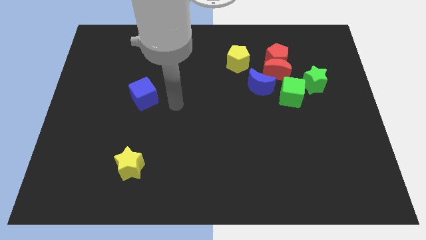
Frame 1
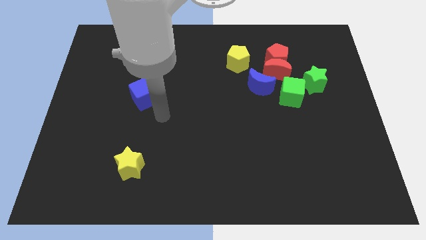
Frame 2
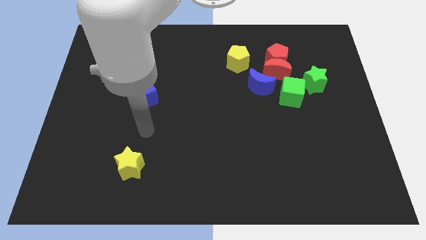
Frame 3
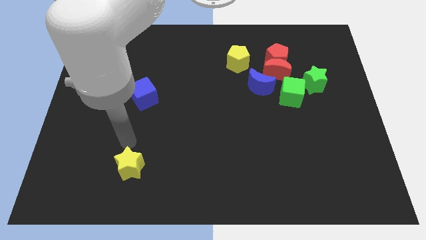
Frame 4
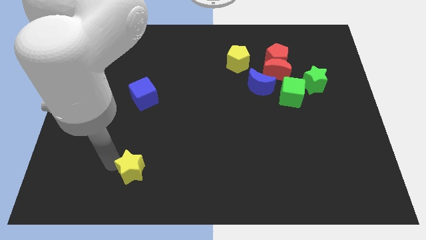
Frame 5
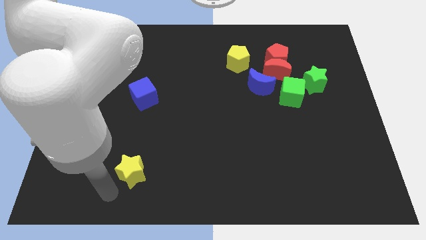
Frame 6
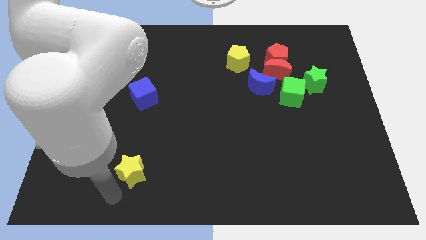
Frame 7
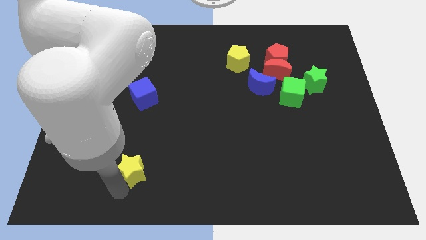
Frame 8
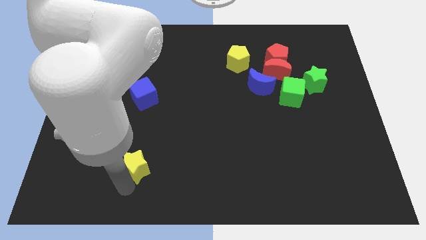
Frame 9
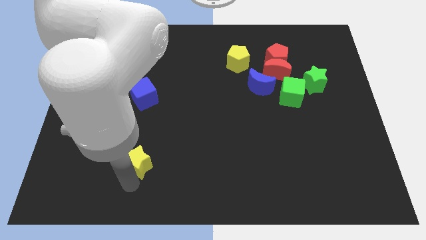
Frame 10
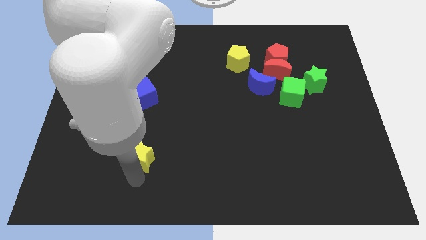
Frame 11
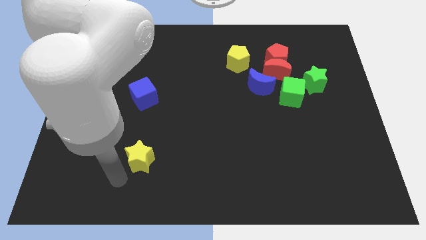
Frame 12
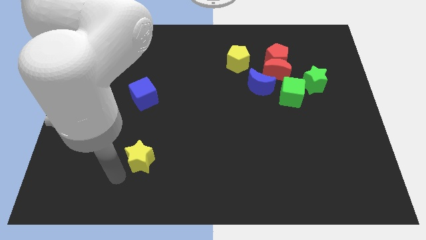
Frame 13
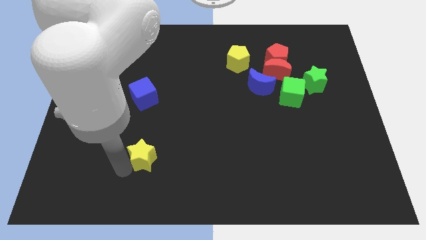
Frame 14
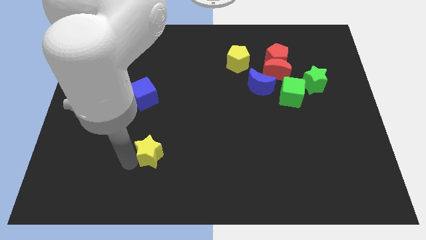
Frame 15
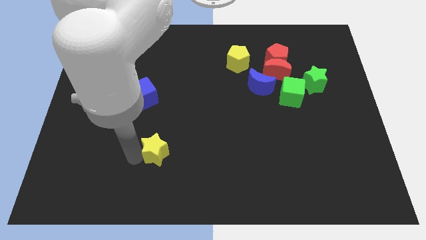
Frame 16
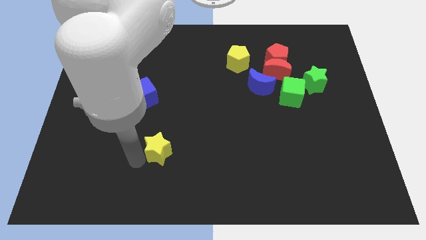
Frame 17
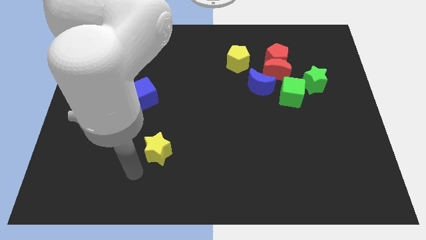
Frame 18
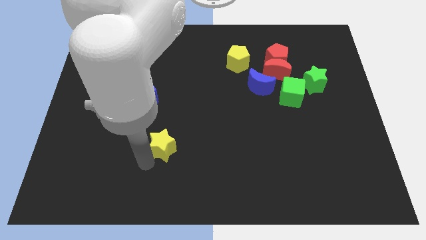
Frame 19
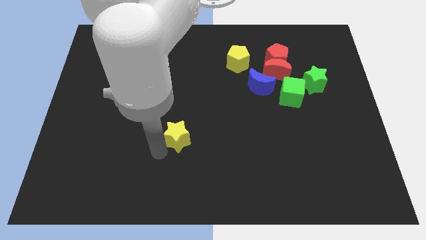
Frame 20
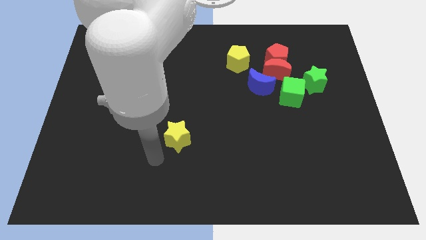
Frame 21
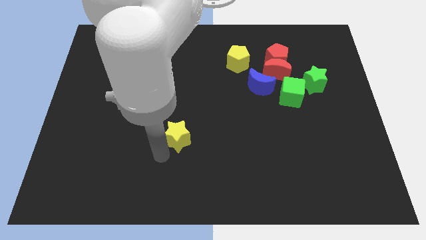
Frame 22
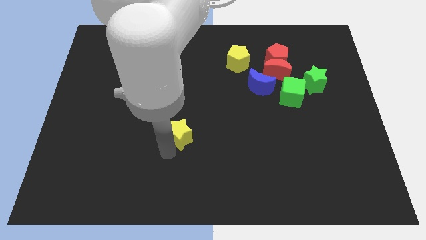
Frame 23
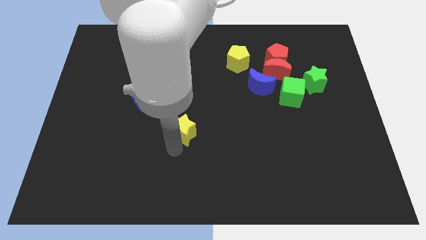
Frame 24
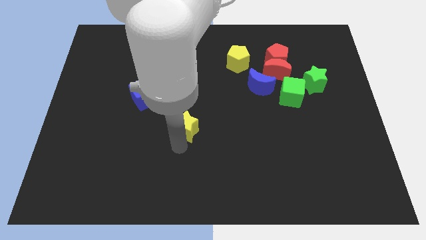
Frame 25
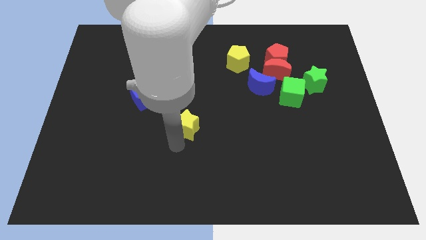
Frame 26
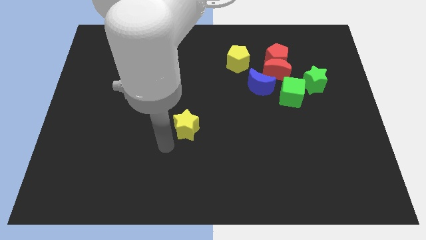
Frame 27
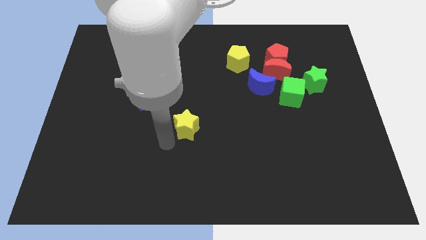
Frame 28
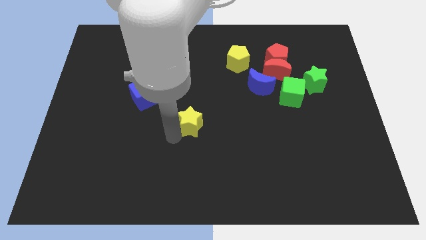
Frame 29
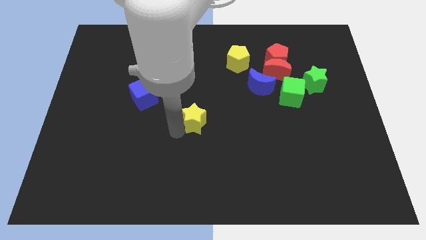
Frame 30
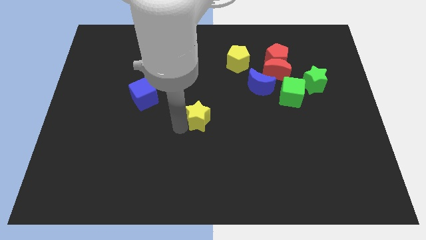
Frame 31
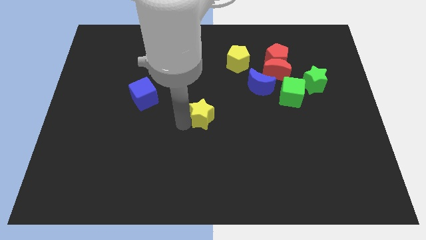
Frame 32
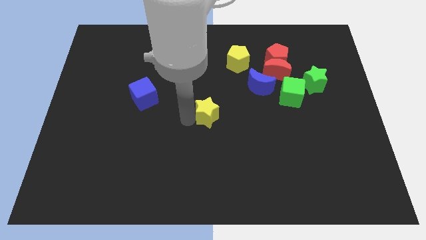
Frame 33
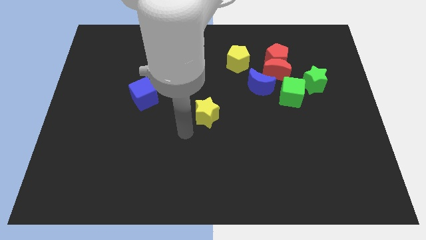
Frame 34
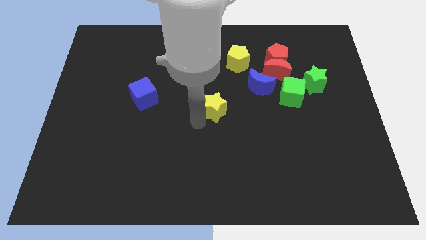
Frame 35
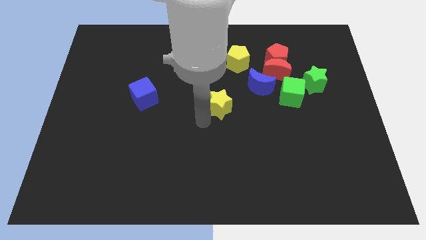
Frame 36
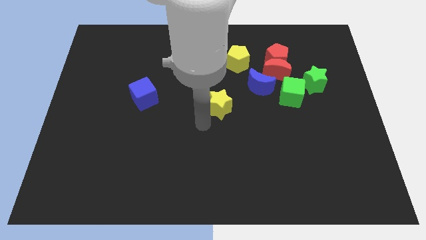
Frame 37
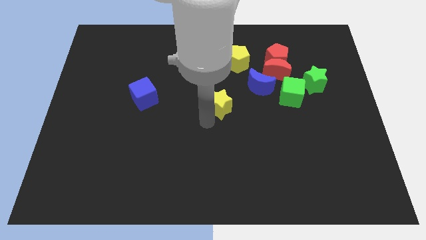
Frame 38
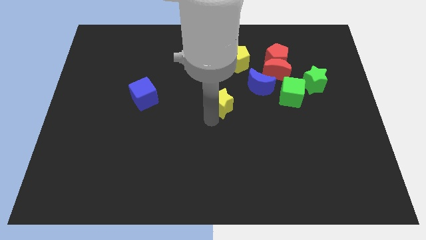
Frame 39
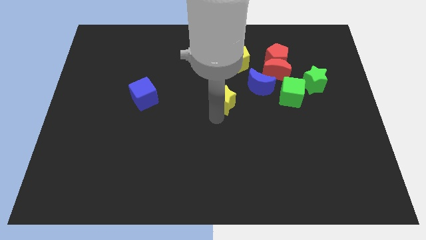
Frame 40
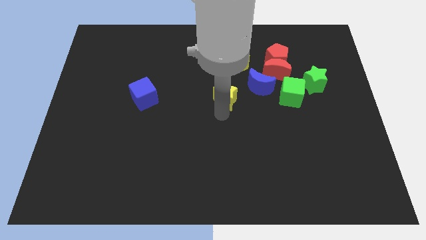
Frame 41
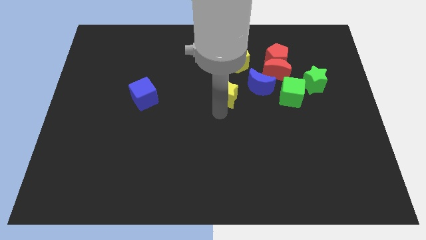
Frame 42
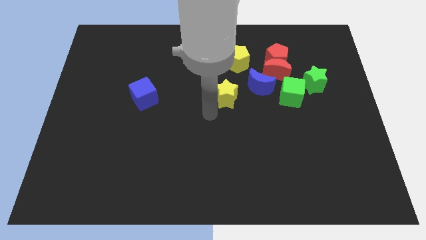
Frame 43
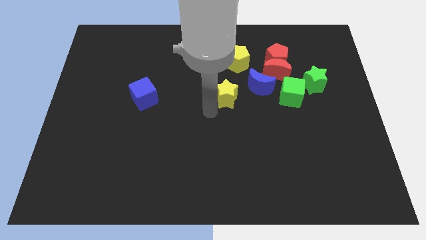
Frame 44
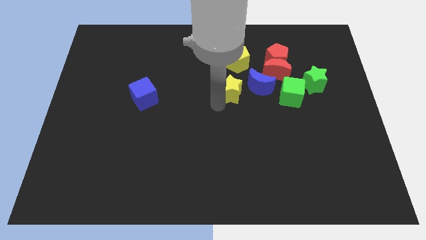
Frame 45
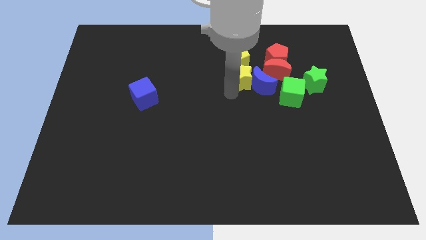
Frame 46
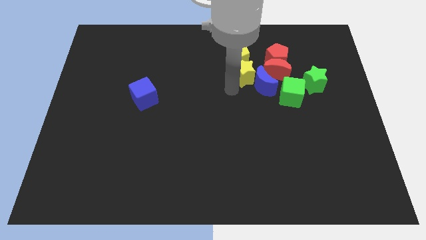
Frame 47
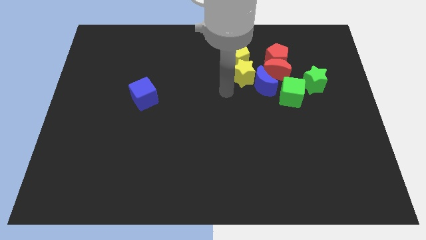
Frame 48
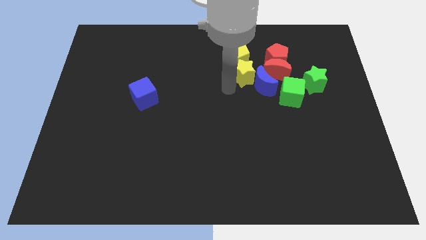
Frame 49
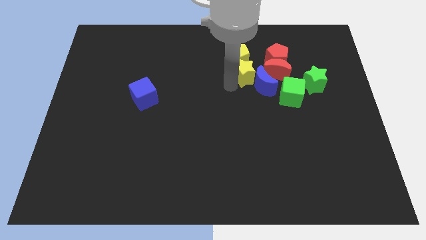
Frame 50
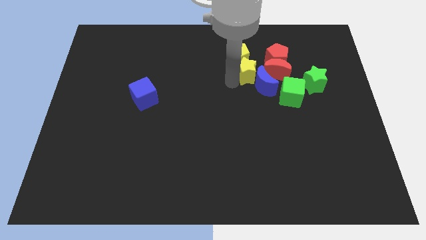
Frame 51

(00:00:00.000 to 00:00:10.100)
push the yellow star to the top left of the green cube

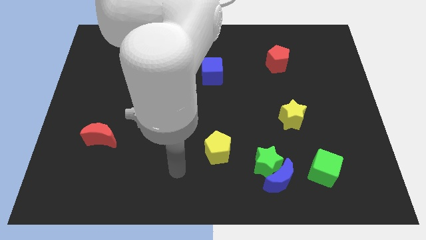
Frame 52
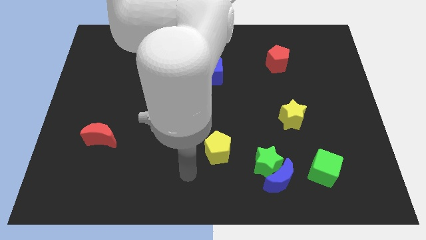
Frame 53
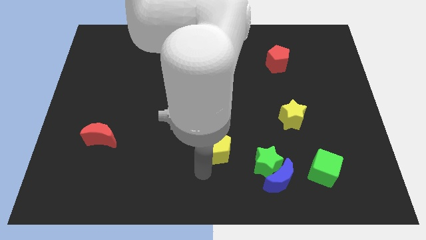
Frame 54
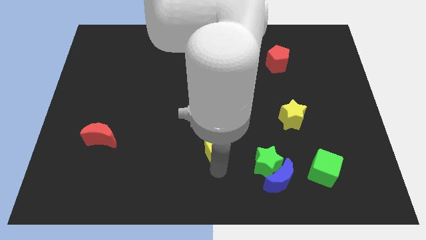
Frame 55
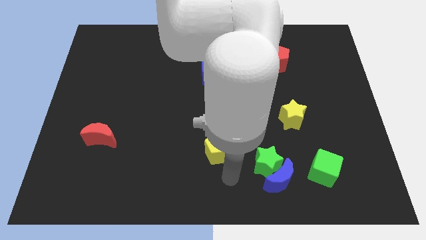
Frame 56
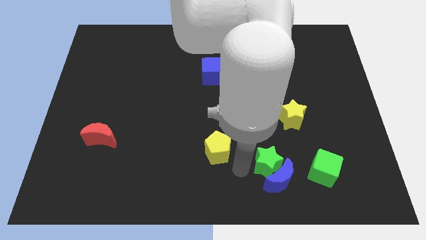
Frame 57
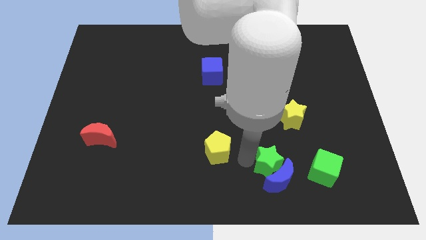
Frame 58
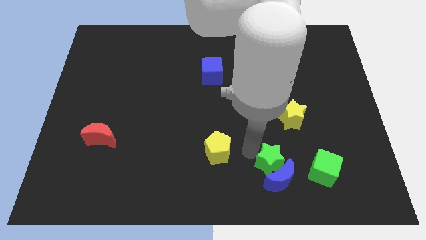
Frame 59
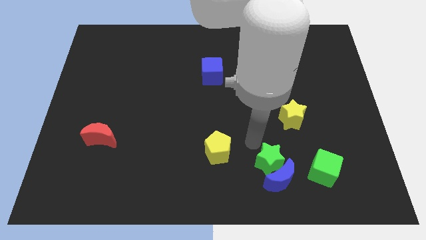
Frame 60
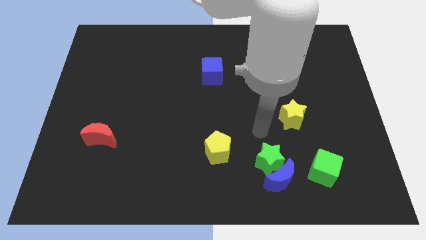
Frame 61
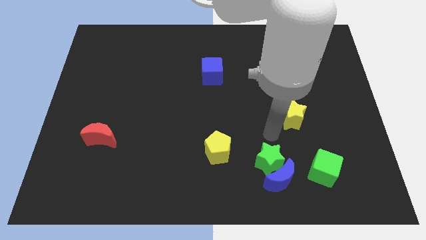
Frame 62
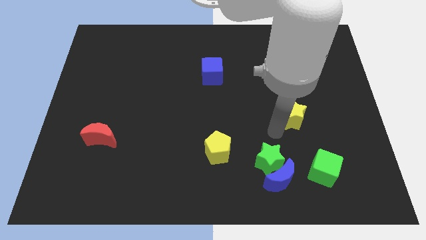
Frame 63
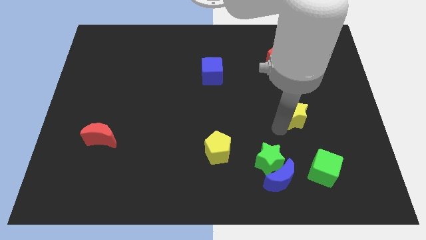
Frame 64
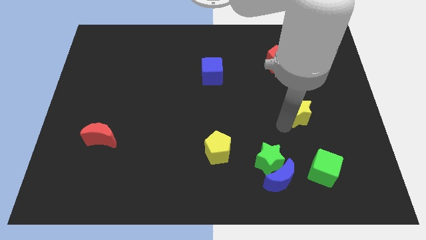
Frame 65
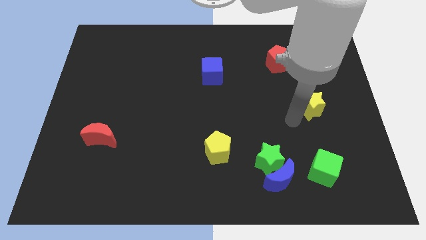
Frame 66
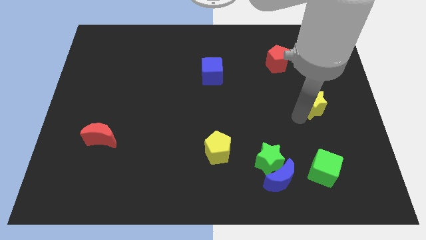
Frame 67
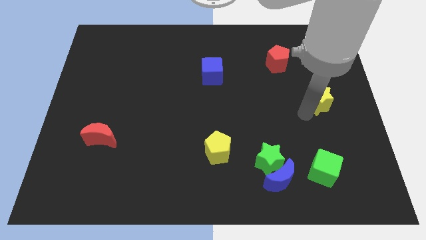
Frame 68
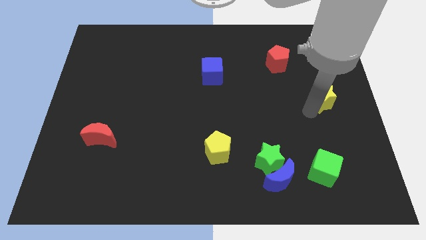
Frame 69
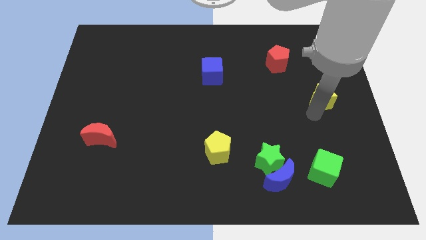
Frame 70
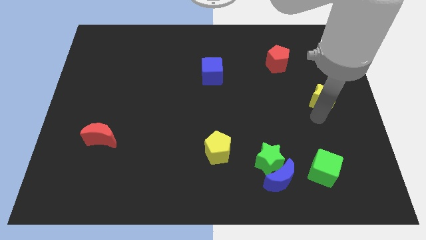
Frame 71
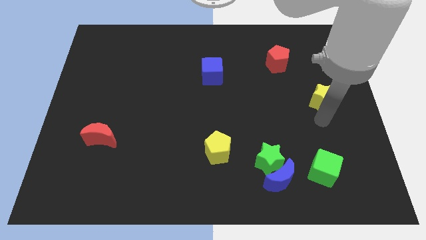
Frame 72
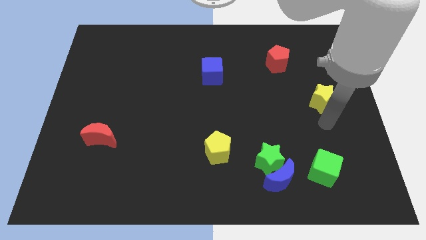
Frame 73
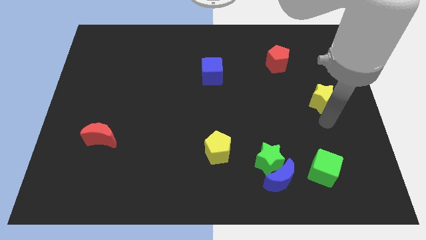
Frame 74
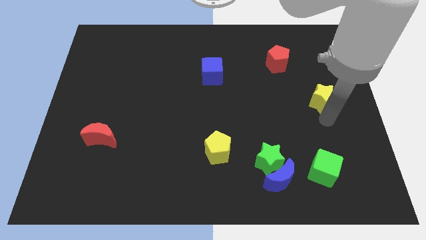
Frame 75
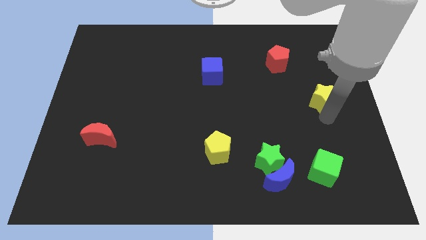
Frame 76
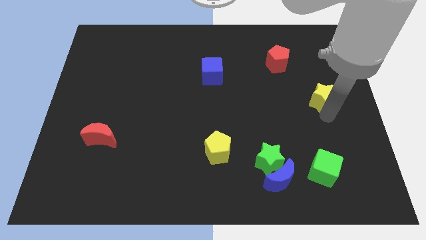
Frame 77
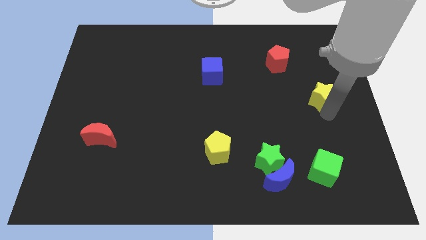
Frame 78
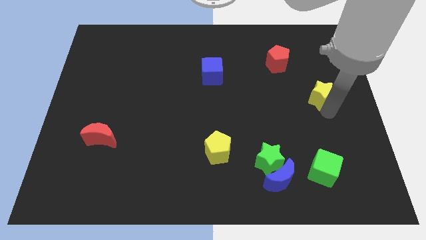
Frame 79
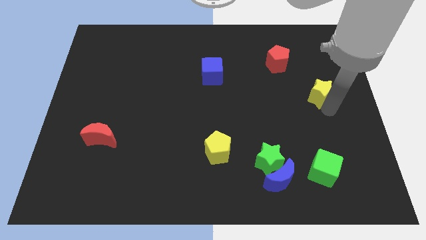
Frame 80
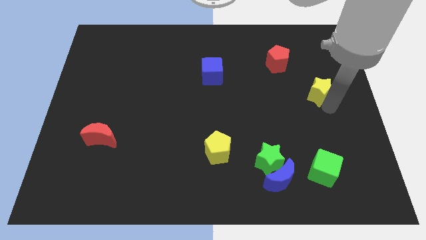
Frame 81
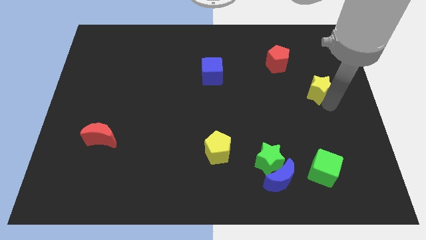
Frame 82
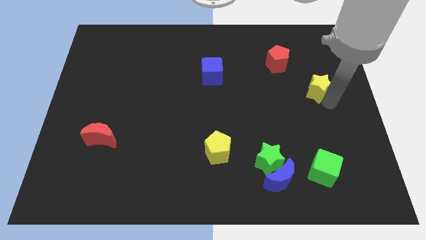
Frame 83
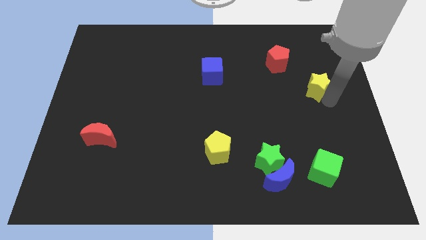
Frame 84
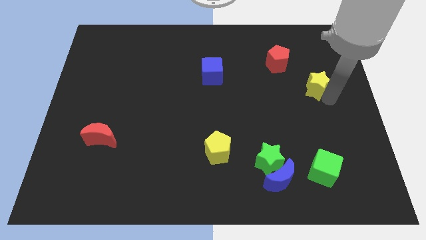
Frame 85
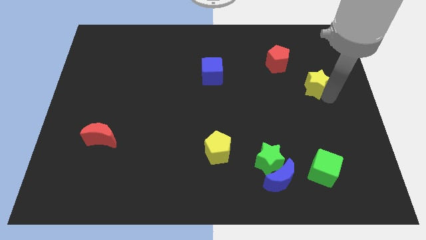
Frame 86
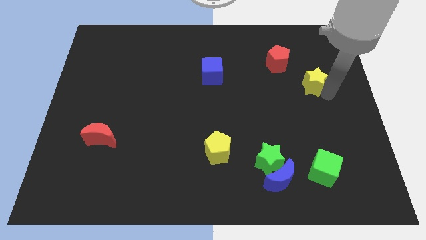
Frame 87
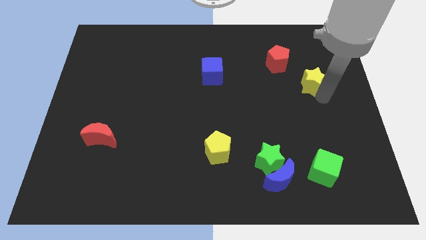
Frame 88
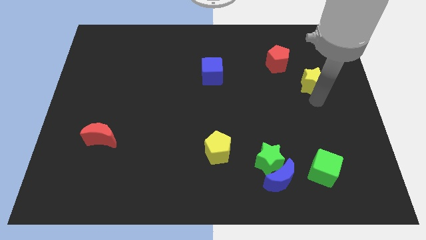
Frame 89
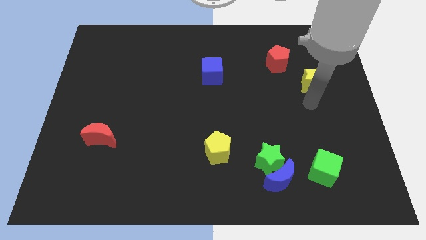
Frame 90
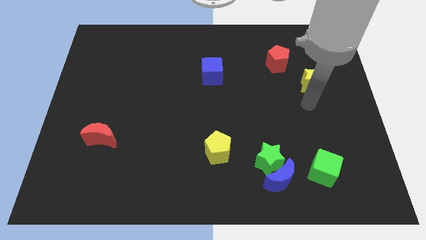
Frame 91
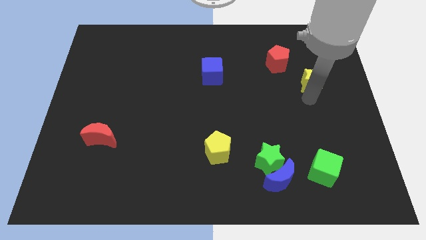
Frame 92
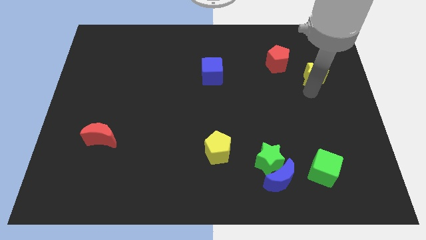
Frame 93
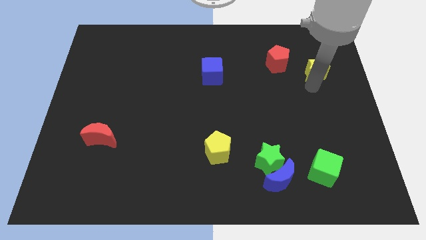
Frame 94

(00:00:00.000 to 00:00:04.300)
push the yellow star to the right side of the red pentagon
